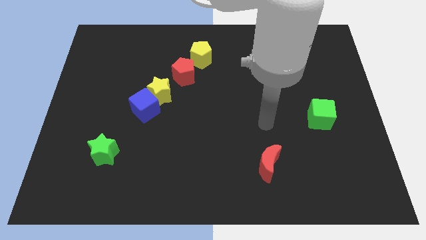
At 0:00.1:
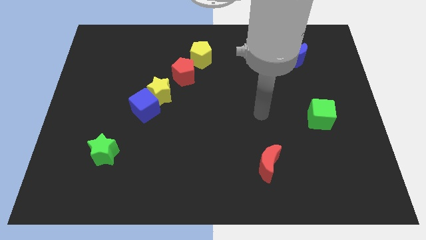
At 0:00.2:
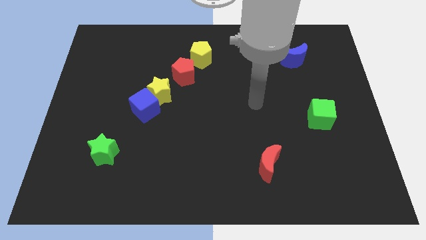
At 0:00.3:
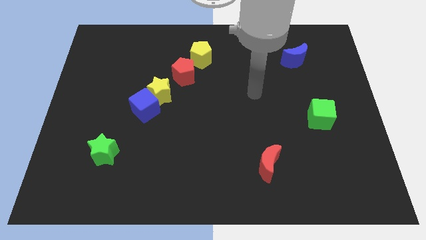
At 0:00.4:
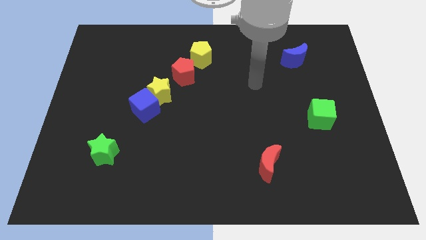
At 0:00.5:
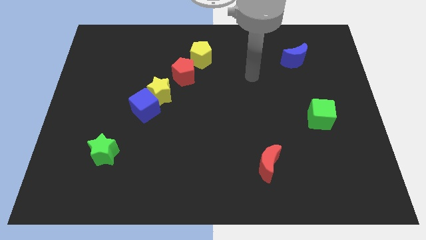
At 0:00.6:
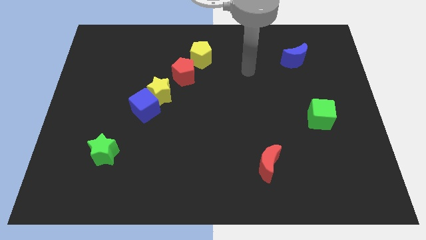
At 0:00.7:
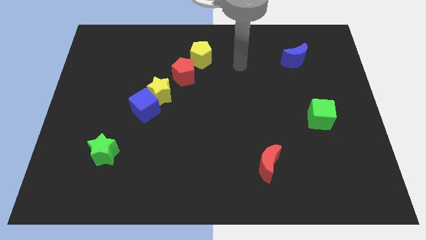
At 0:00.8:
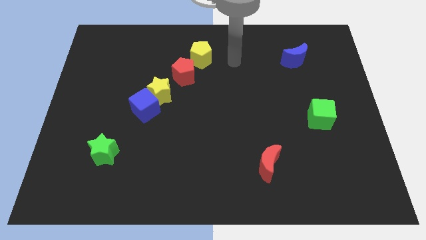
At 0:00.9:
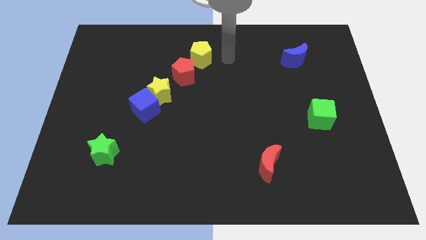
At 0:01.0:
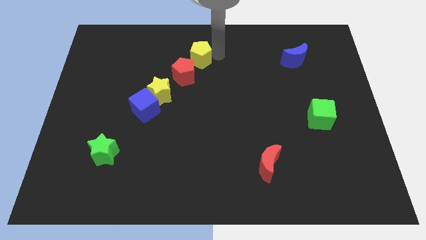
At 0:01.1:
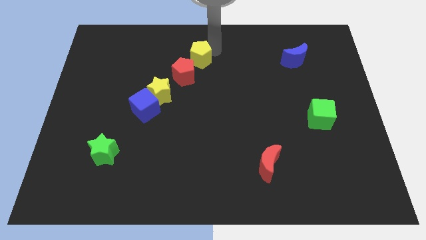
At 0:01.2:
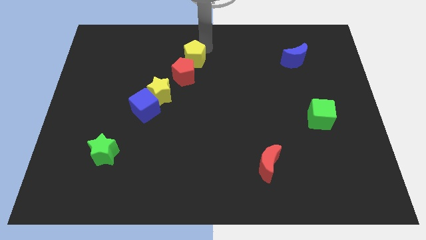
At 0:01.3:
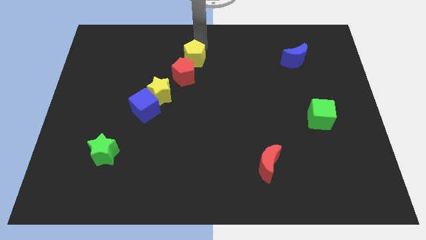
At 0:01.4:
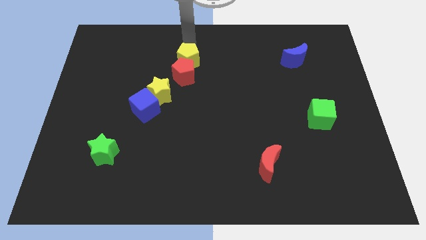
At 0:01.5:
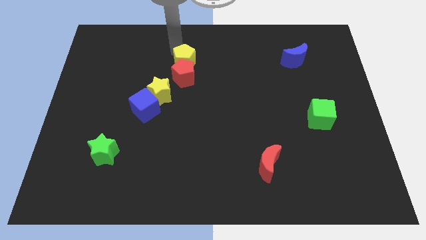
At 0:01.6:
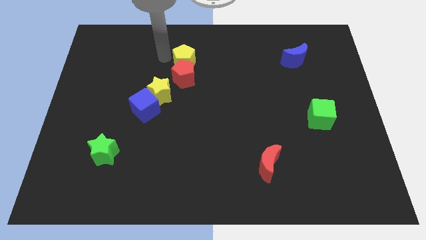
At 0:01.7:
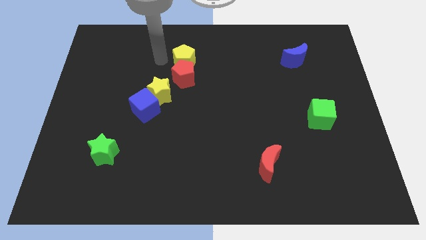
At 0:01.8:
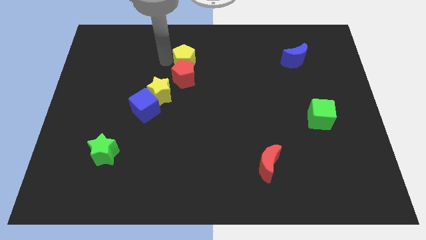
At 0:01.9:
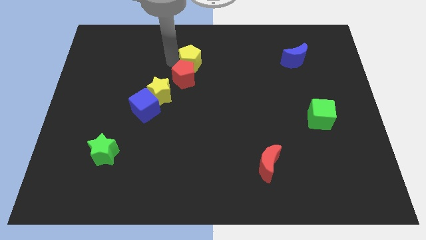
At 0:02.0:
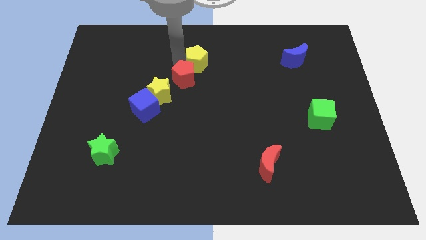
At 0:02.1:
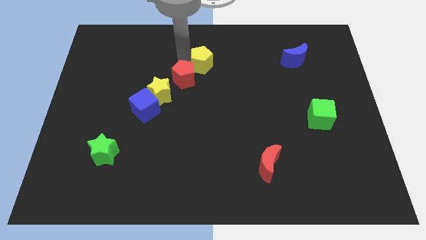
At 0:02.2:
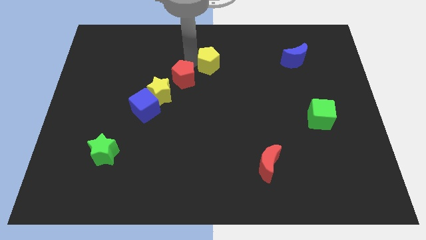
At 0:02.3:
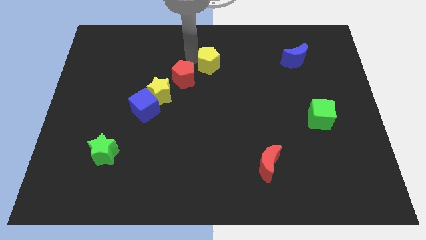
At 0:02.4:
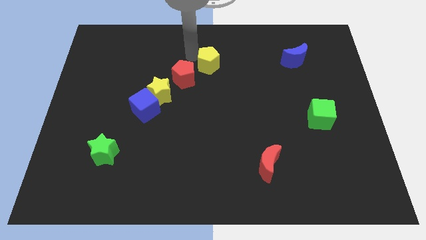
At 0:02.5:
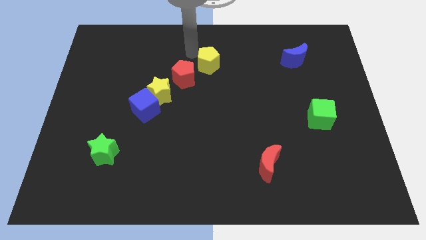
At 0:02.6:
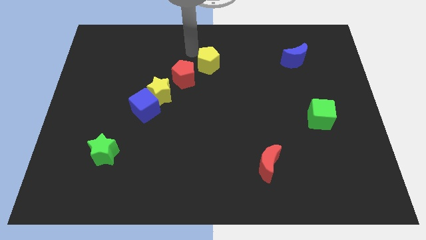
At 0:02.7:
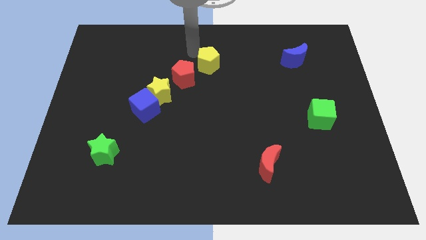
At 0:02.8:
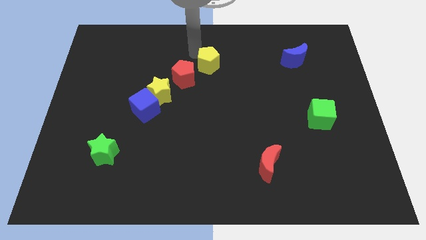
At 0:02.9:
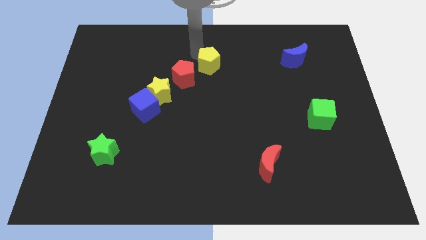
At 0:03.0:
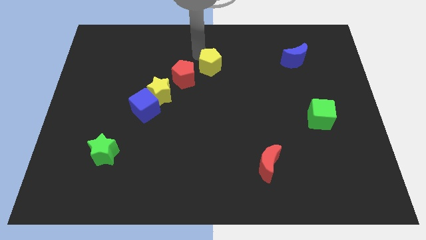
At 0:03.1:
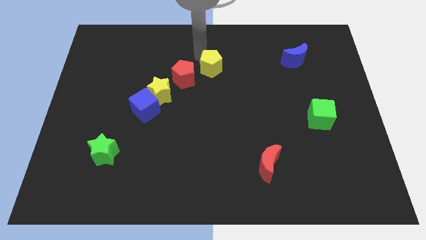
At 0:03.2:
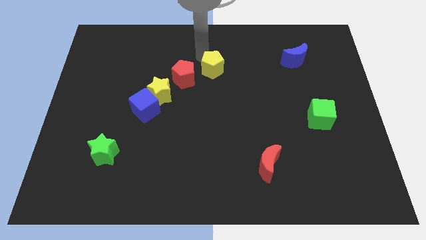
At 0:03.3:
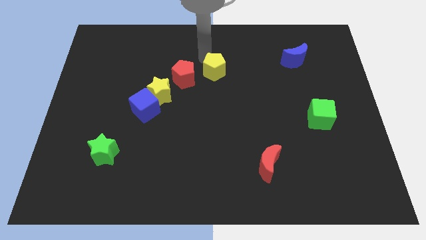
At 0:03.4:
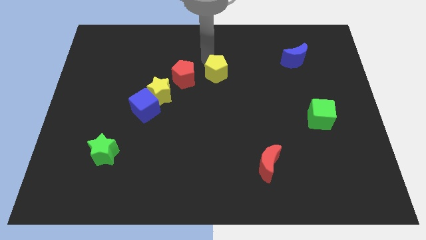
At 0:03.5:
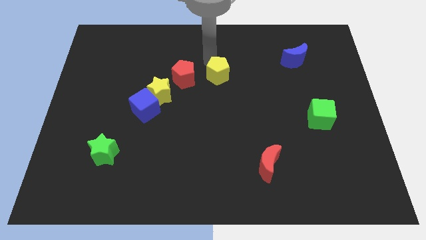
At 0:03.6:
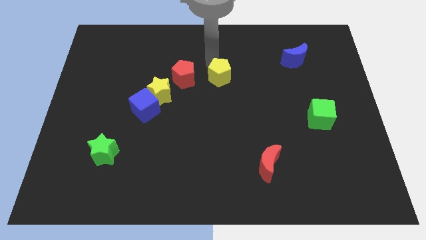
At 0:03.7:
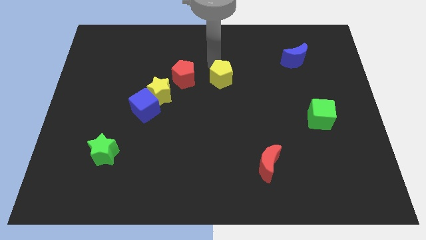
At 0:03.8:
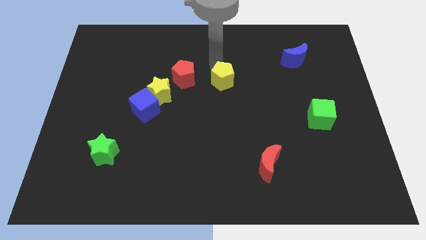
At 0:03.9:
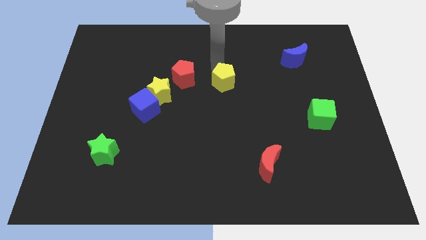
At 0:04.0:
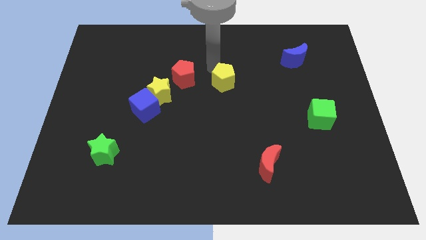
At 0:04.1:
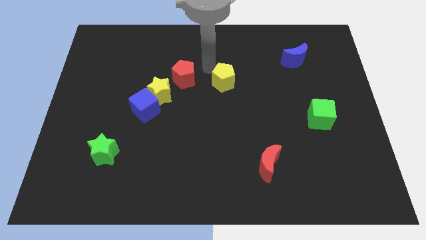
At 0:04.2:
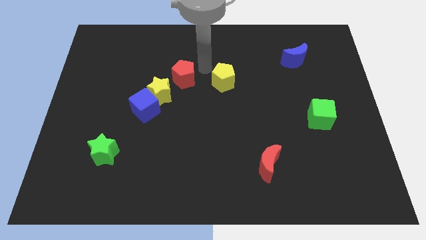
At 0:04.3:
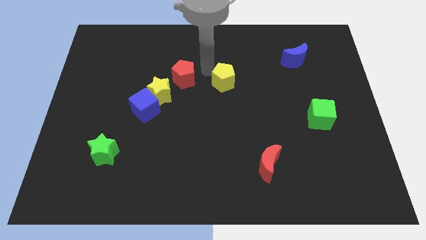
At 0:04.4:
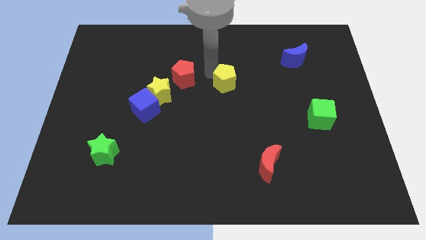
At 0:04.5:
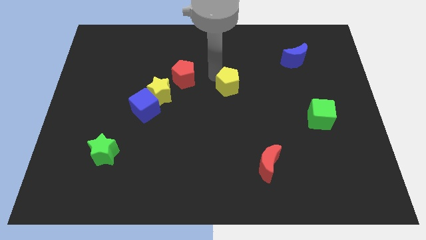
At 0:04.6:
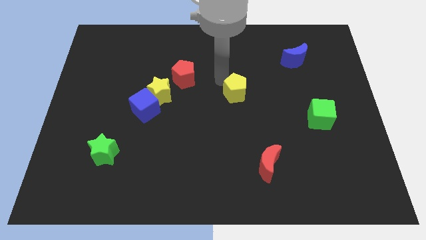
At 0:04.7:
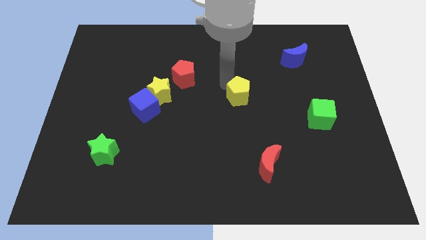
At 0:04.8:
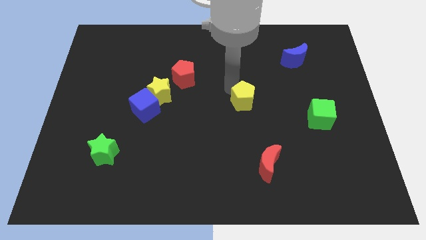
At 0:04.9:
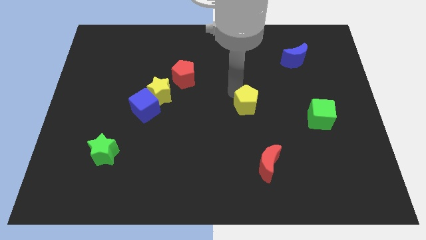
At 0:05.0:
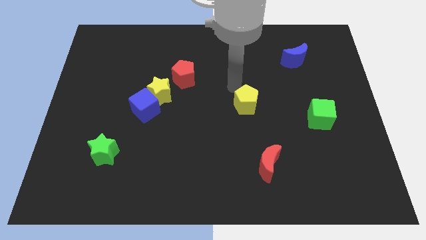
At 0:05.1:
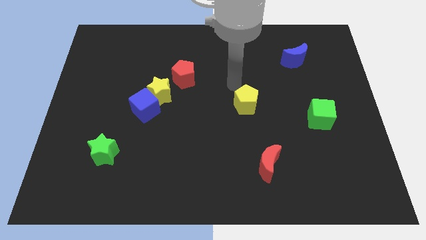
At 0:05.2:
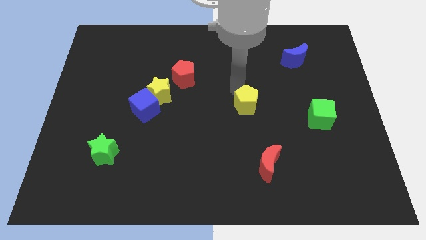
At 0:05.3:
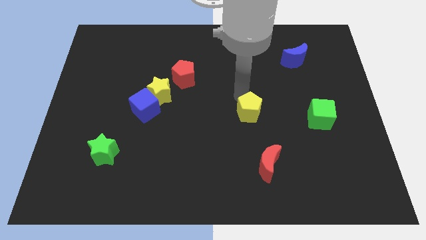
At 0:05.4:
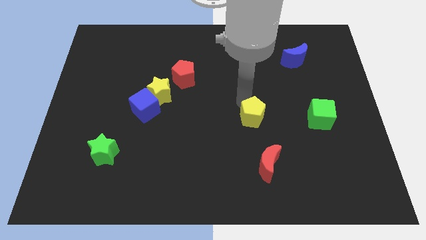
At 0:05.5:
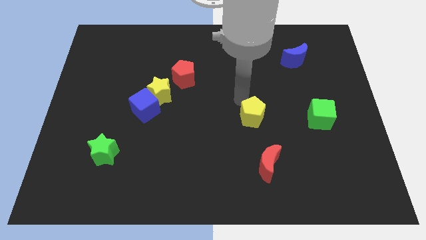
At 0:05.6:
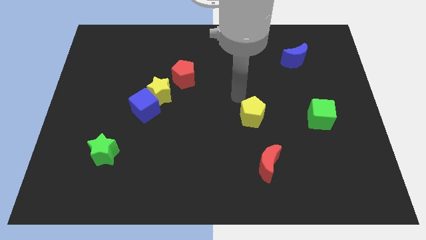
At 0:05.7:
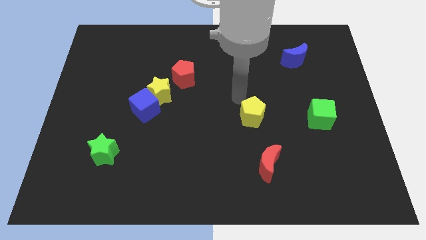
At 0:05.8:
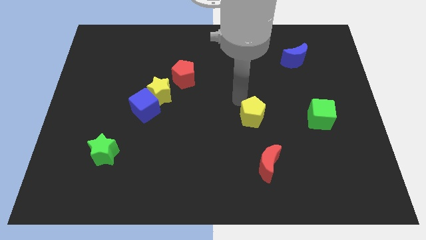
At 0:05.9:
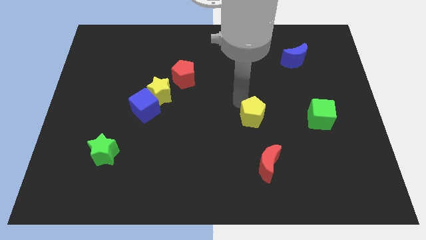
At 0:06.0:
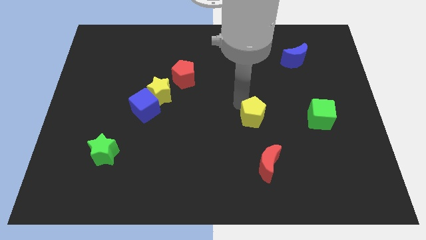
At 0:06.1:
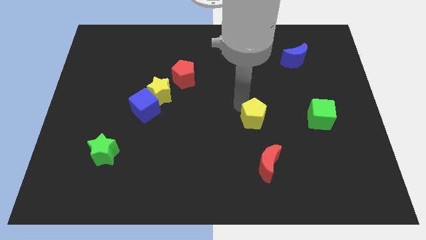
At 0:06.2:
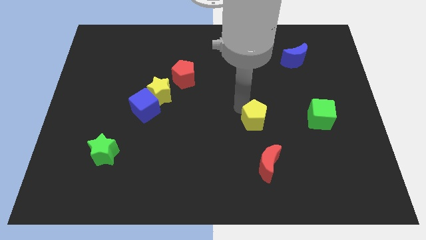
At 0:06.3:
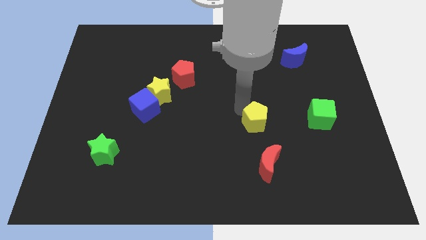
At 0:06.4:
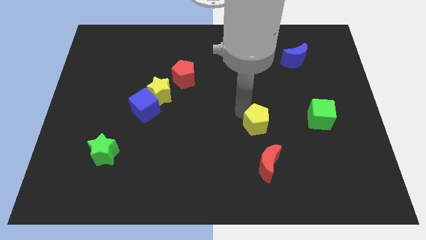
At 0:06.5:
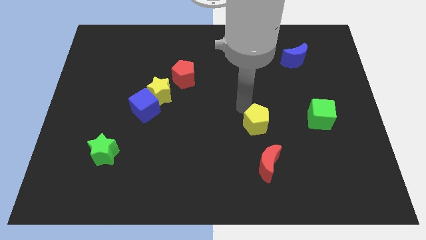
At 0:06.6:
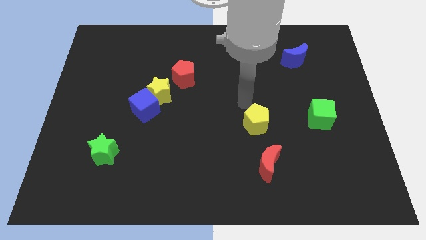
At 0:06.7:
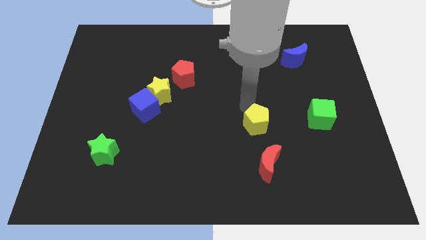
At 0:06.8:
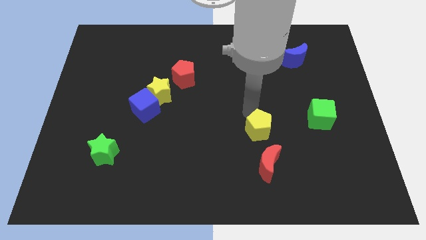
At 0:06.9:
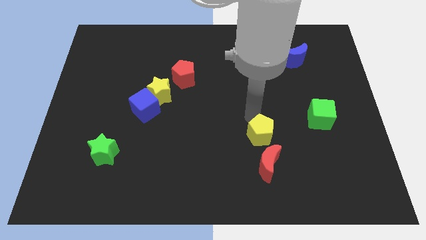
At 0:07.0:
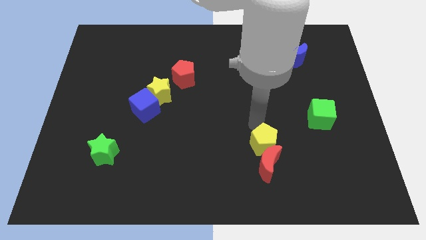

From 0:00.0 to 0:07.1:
put the yellow pentagon close to the red moon

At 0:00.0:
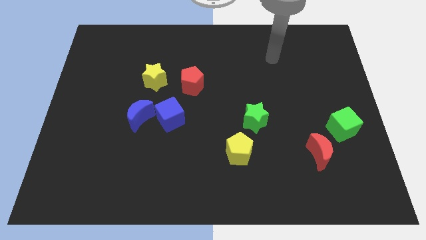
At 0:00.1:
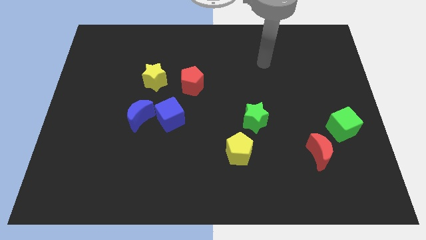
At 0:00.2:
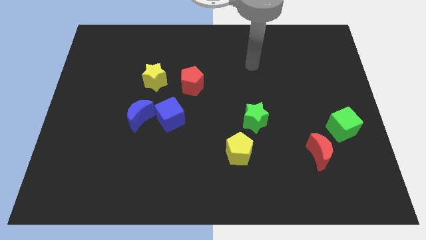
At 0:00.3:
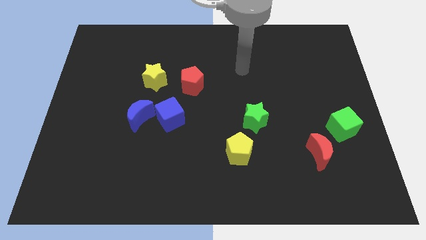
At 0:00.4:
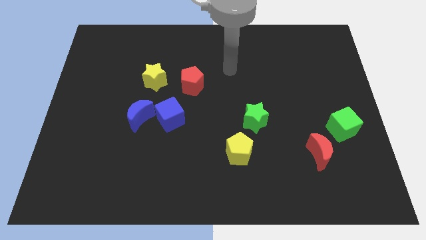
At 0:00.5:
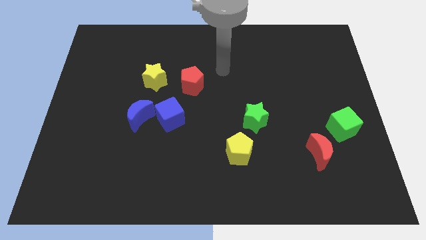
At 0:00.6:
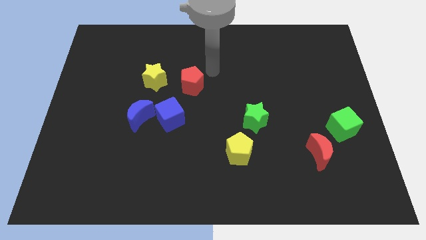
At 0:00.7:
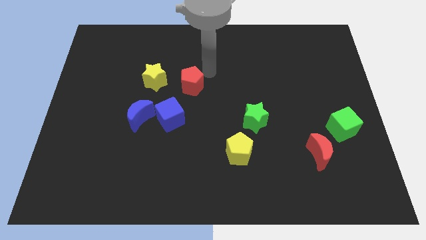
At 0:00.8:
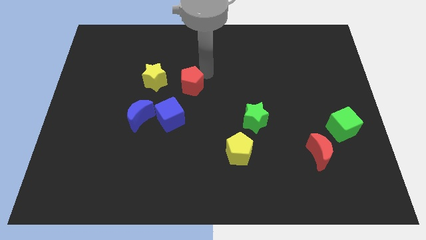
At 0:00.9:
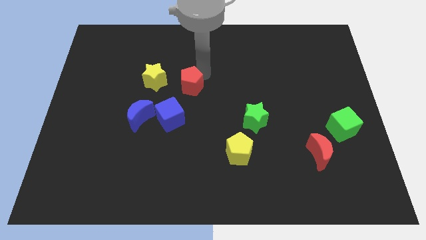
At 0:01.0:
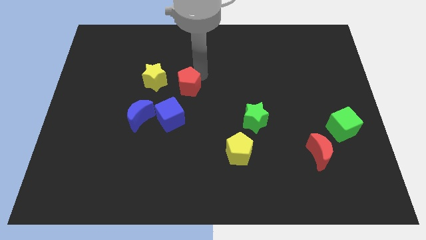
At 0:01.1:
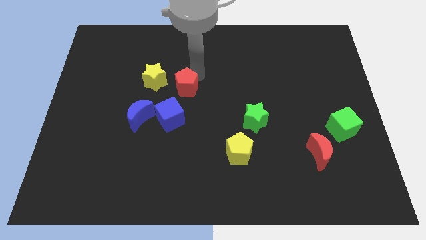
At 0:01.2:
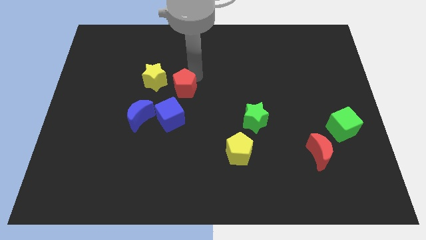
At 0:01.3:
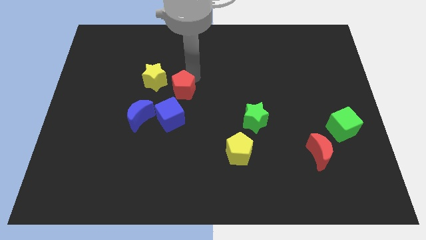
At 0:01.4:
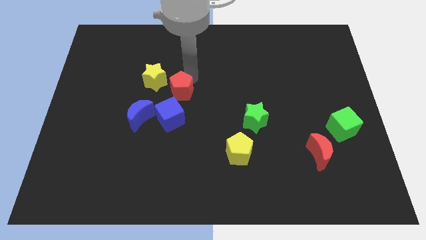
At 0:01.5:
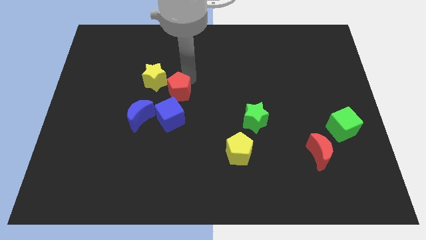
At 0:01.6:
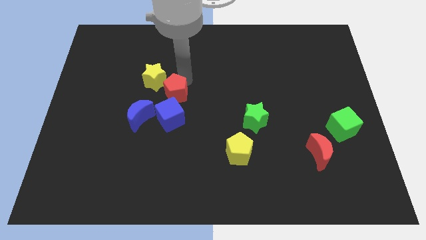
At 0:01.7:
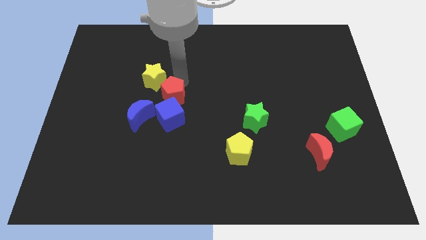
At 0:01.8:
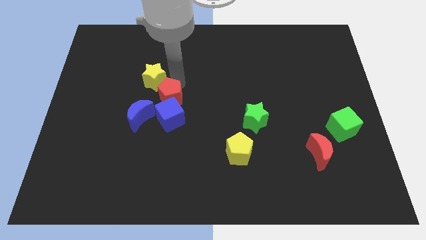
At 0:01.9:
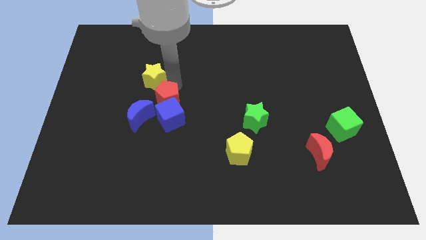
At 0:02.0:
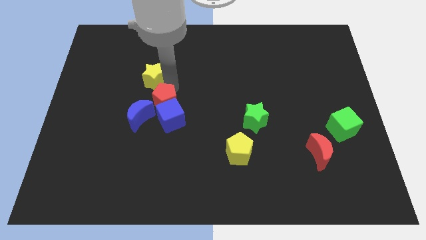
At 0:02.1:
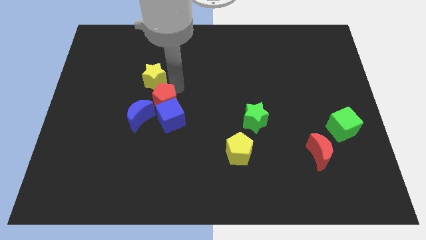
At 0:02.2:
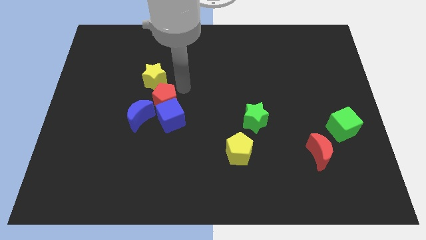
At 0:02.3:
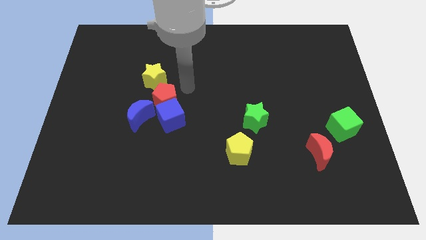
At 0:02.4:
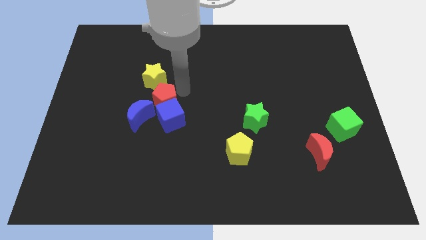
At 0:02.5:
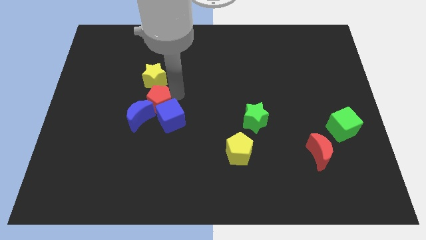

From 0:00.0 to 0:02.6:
slide the red pentagon close to the blue moon
